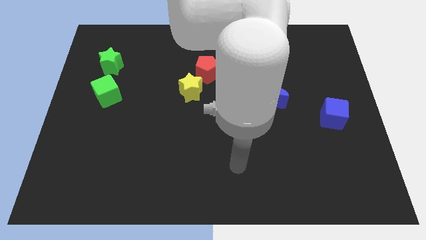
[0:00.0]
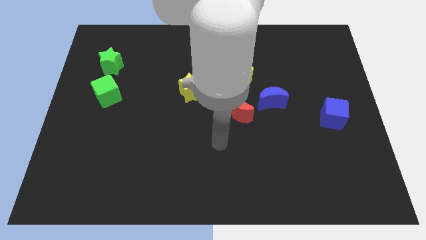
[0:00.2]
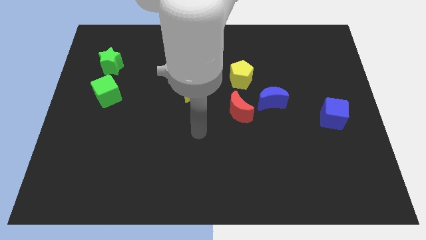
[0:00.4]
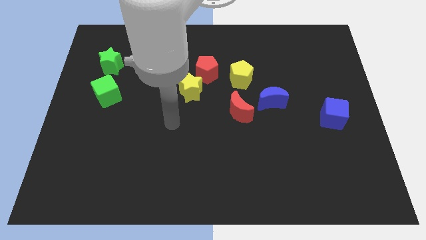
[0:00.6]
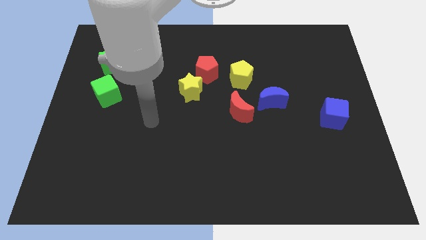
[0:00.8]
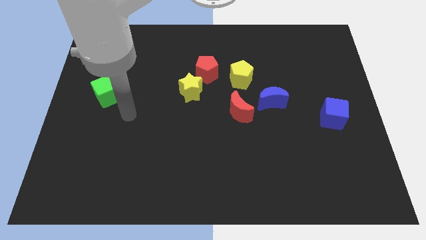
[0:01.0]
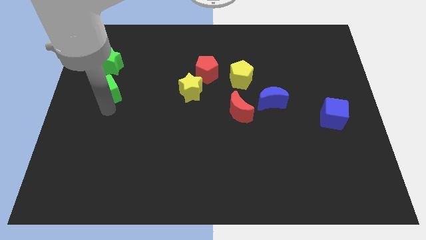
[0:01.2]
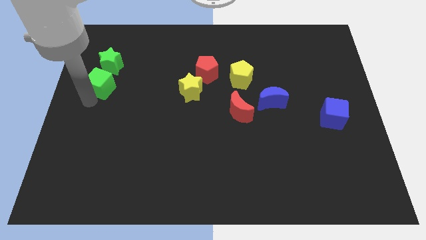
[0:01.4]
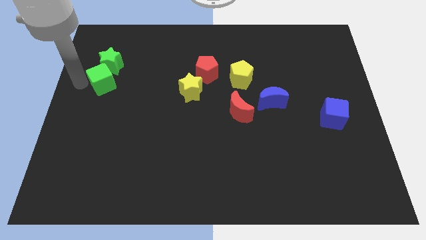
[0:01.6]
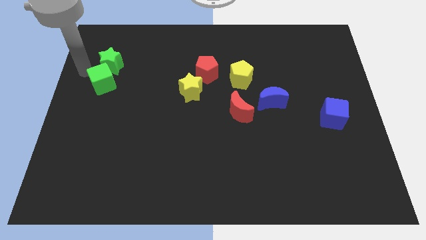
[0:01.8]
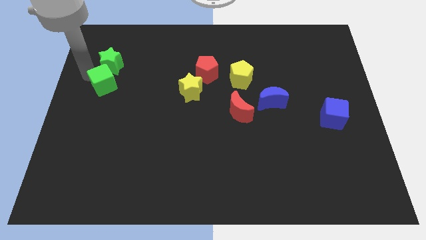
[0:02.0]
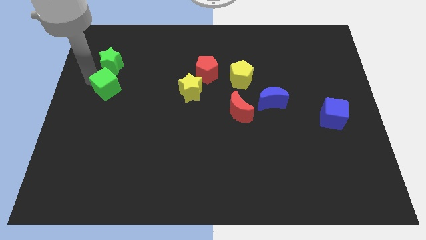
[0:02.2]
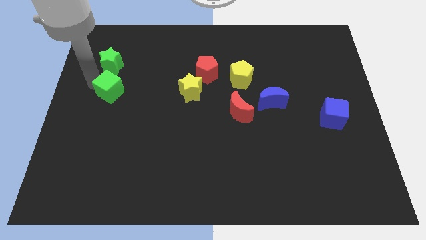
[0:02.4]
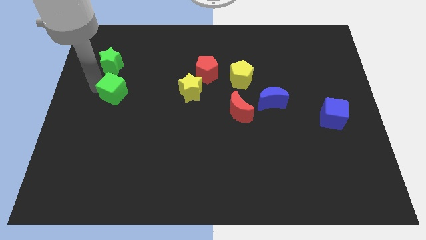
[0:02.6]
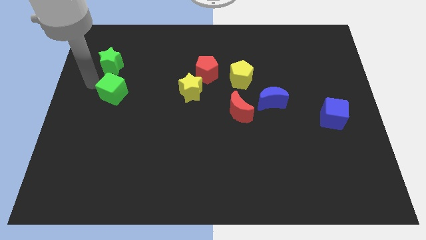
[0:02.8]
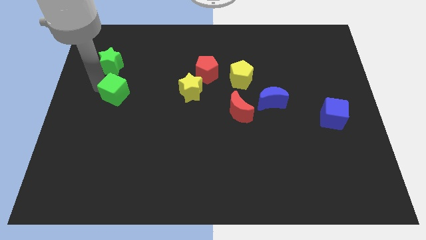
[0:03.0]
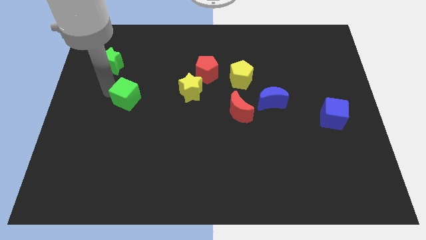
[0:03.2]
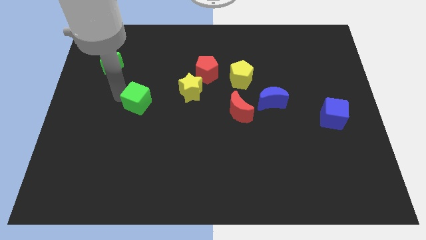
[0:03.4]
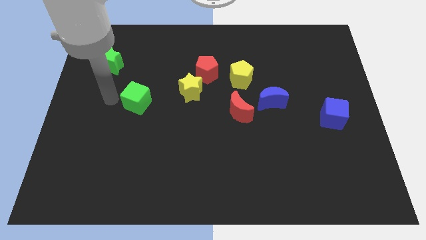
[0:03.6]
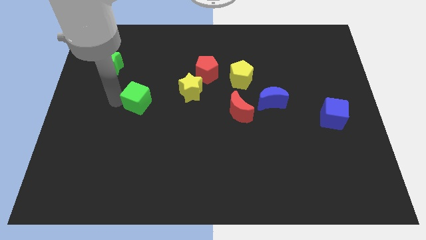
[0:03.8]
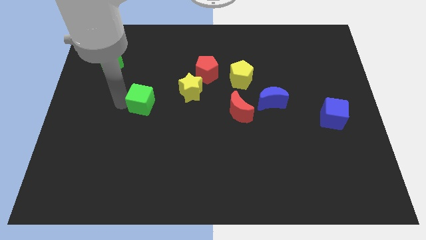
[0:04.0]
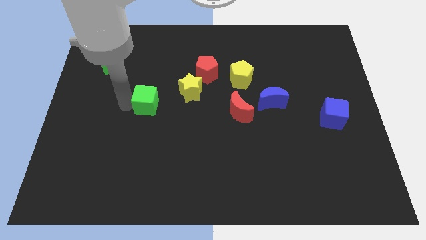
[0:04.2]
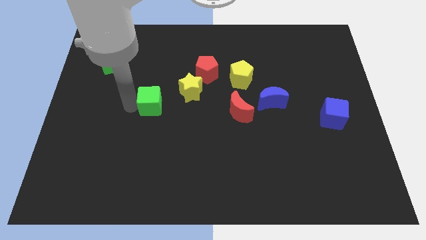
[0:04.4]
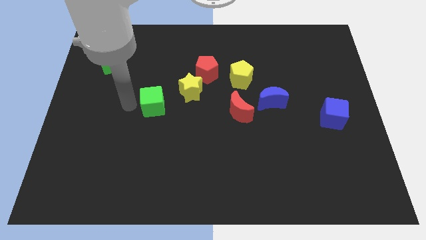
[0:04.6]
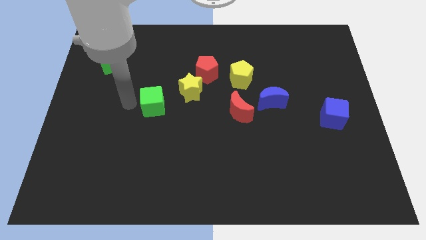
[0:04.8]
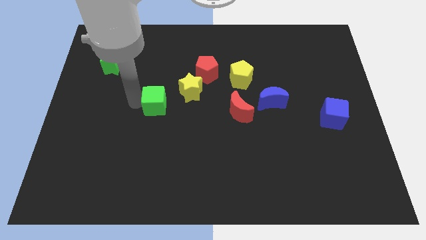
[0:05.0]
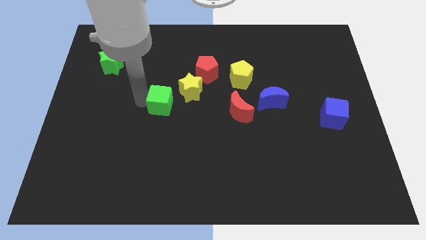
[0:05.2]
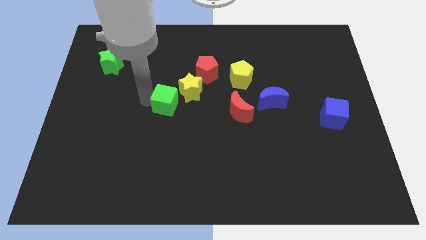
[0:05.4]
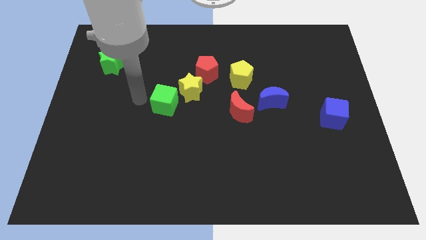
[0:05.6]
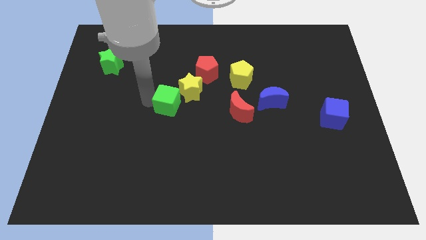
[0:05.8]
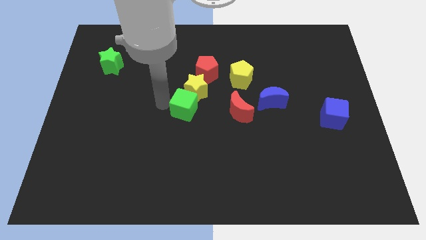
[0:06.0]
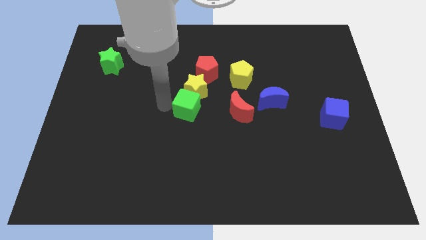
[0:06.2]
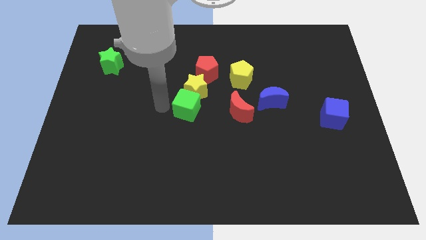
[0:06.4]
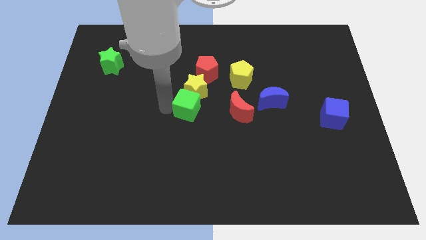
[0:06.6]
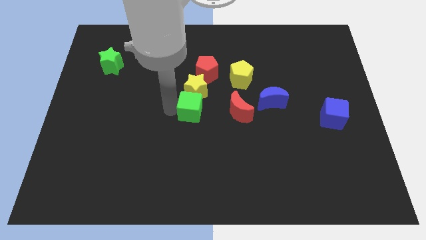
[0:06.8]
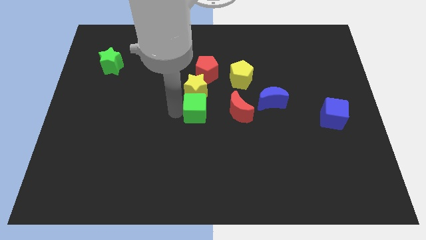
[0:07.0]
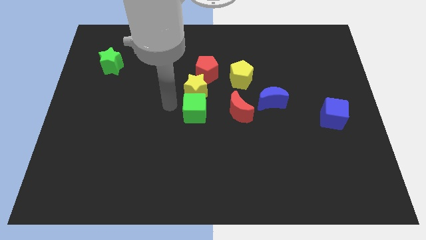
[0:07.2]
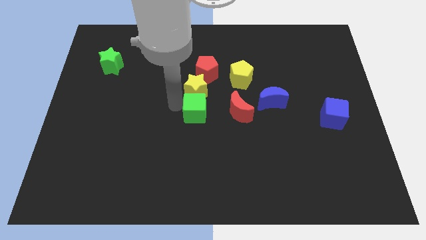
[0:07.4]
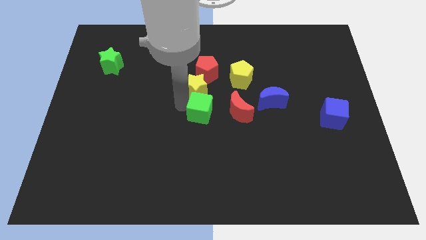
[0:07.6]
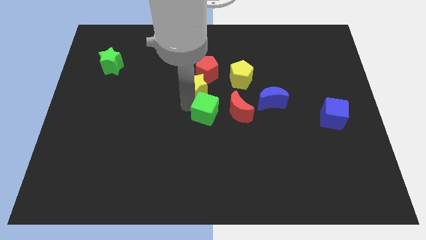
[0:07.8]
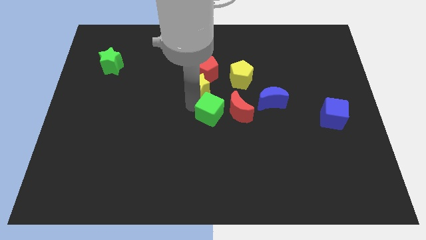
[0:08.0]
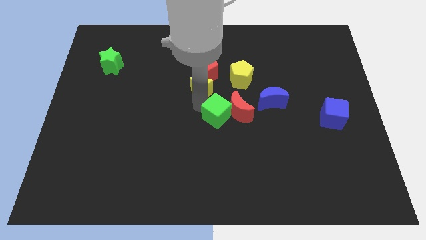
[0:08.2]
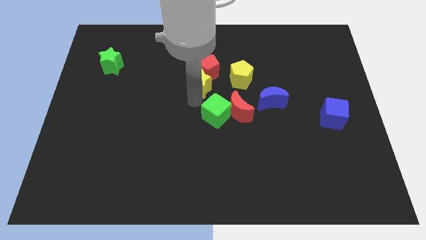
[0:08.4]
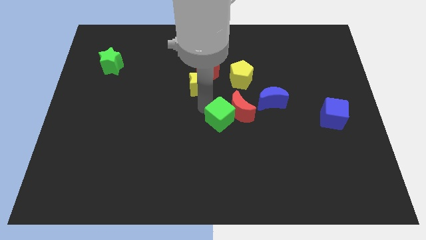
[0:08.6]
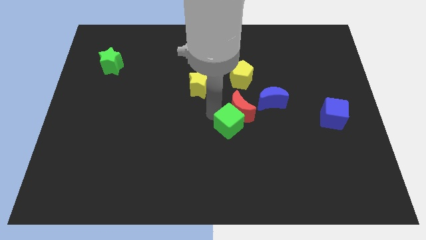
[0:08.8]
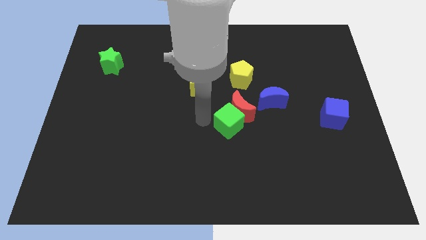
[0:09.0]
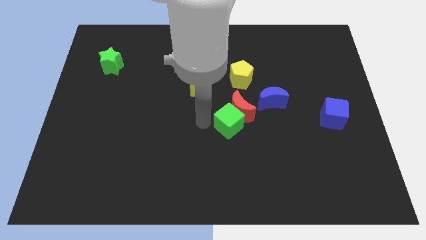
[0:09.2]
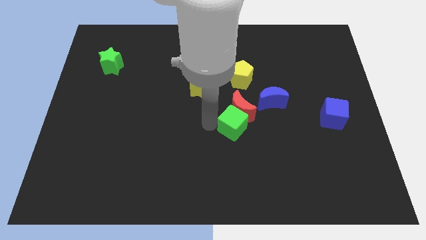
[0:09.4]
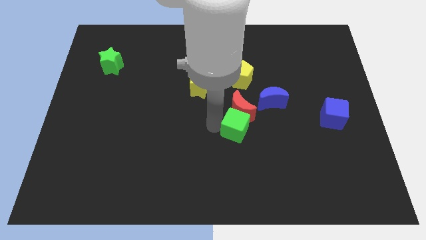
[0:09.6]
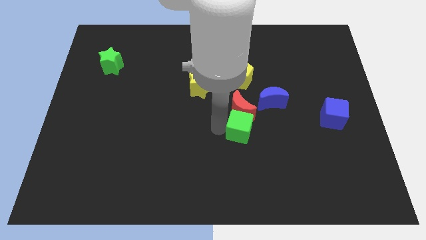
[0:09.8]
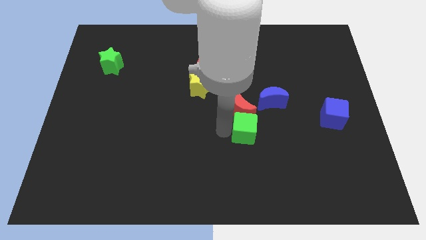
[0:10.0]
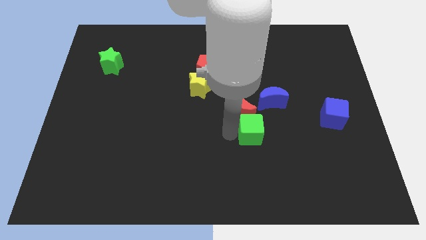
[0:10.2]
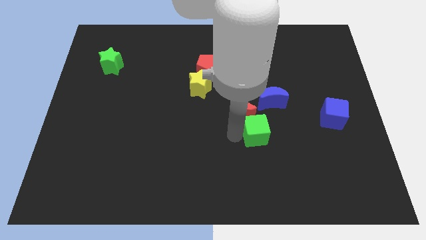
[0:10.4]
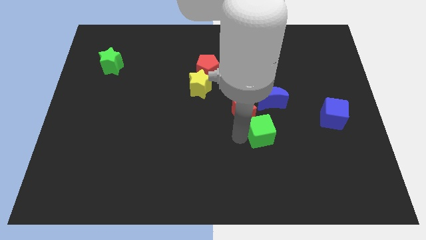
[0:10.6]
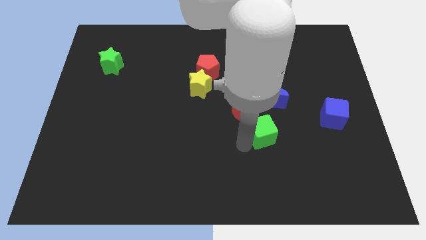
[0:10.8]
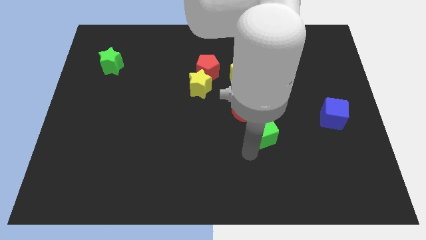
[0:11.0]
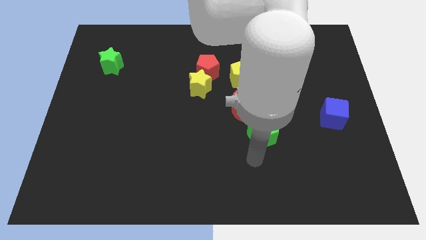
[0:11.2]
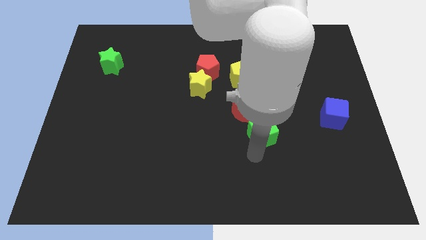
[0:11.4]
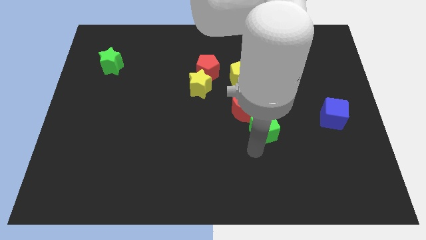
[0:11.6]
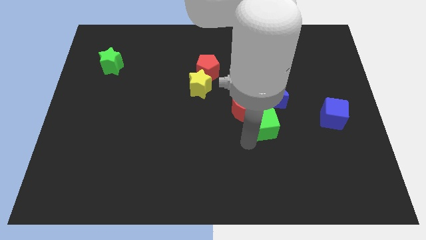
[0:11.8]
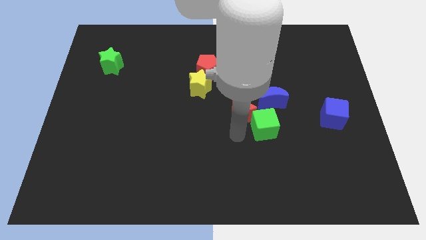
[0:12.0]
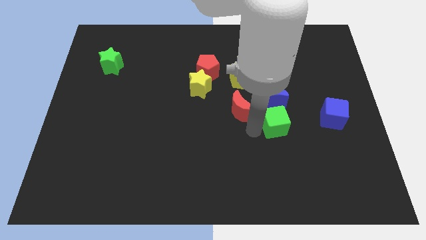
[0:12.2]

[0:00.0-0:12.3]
move the green cube to the bottom right side of the blue moon

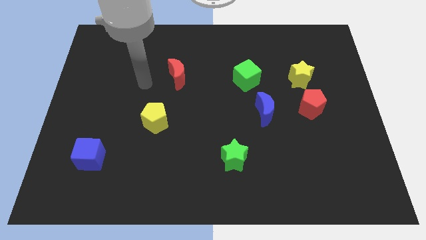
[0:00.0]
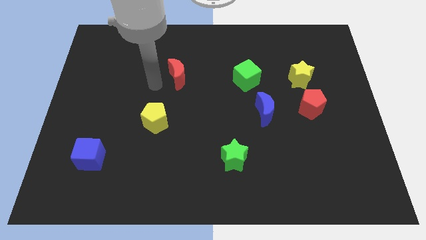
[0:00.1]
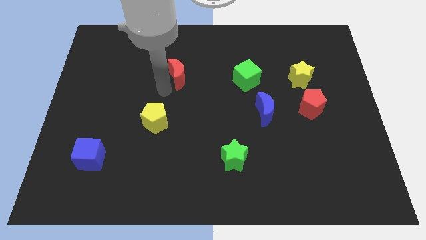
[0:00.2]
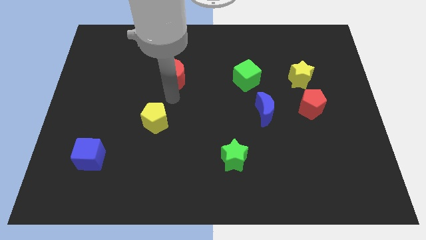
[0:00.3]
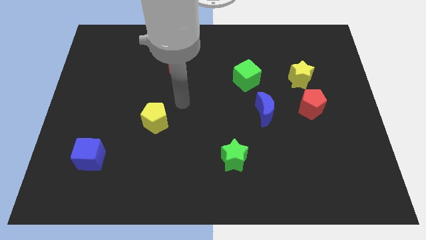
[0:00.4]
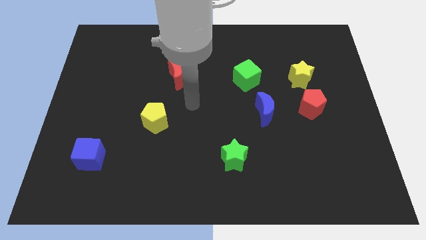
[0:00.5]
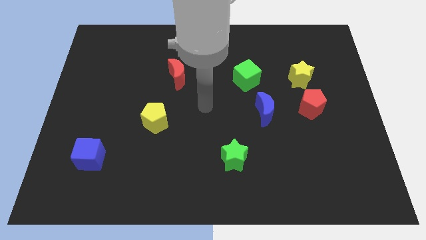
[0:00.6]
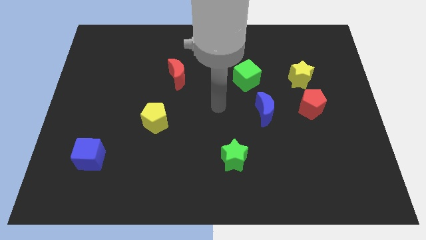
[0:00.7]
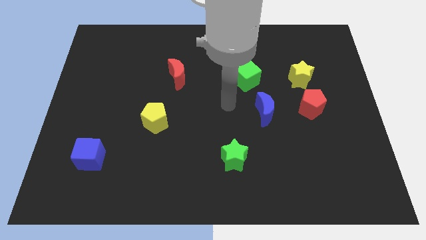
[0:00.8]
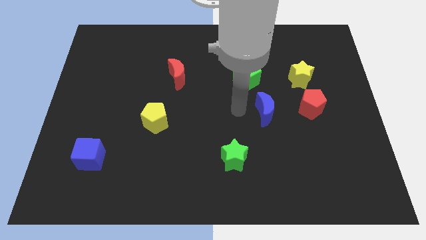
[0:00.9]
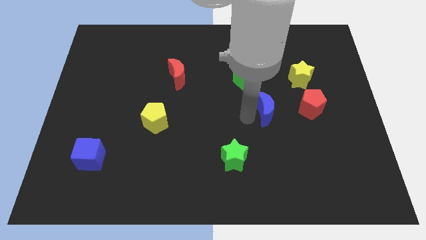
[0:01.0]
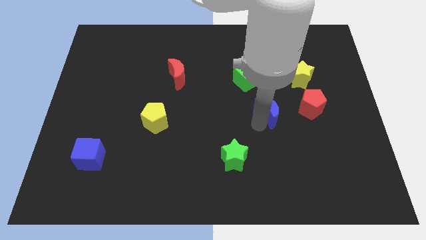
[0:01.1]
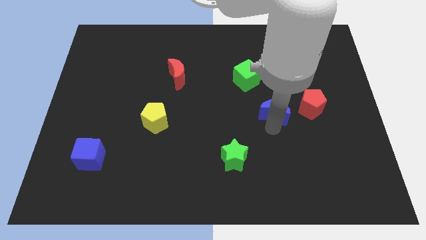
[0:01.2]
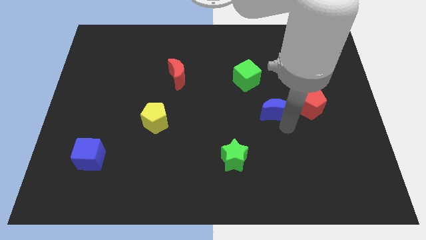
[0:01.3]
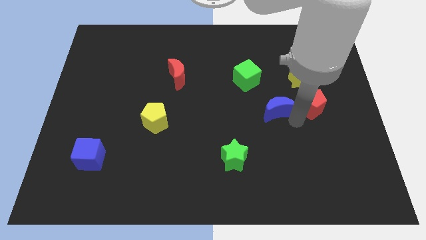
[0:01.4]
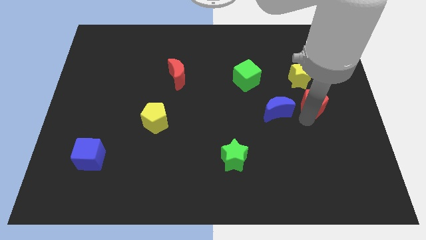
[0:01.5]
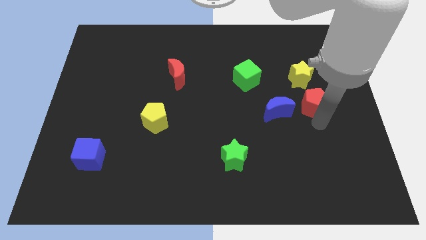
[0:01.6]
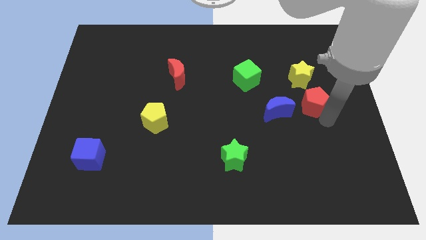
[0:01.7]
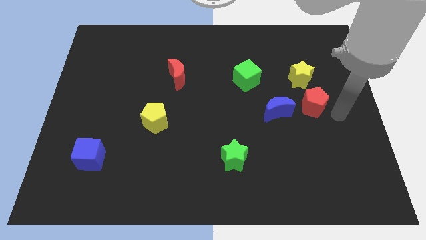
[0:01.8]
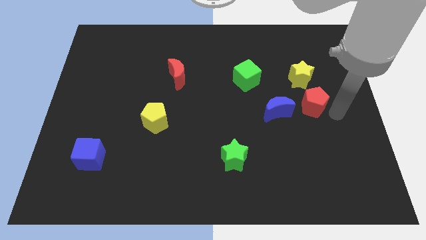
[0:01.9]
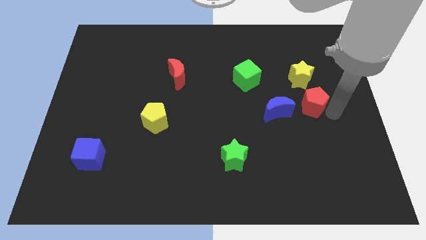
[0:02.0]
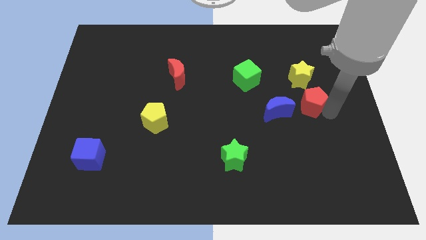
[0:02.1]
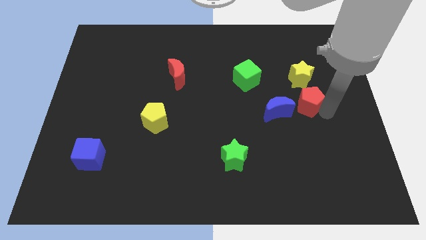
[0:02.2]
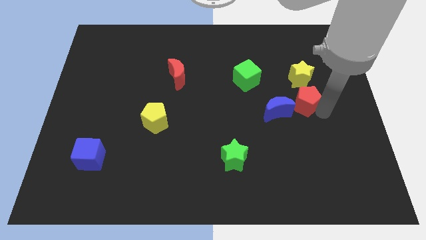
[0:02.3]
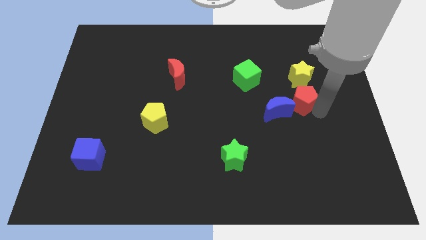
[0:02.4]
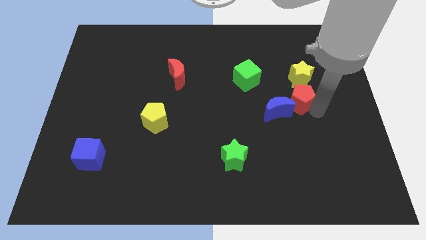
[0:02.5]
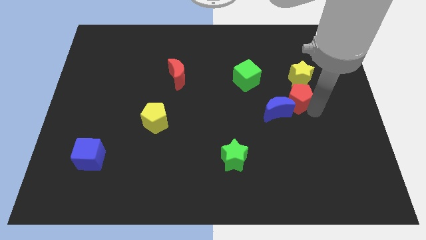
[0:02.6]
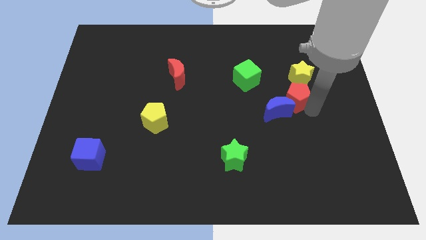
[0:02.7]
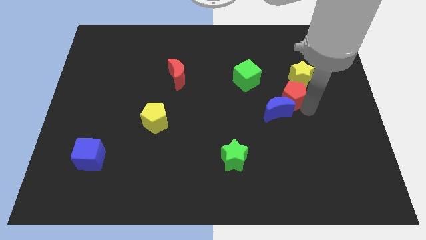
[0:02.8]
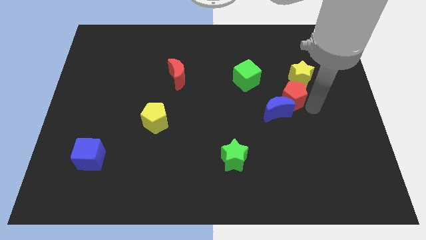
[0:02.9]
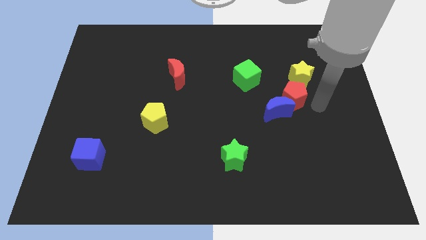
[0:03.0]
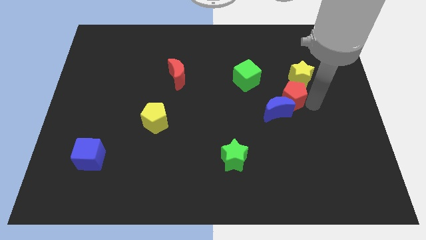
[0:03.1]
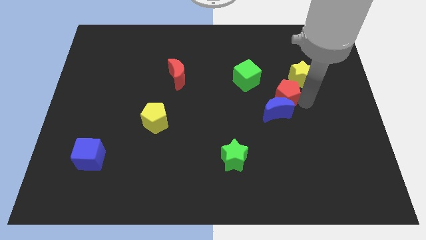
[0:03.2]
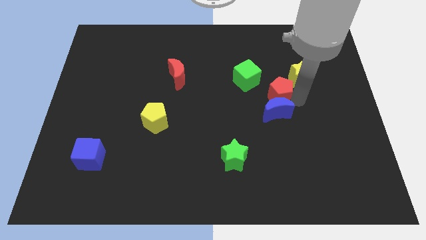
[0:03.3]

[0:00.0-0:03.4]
move the red pentagon to the top left of the blue moon
